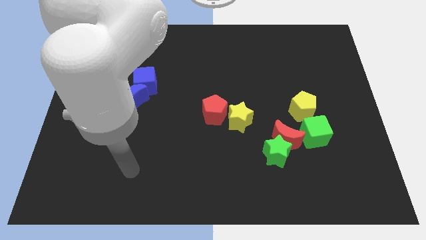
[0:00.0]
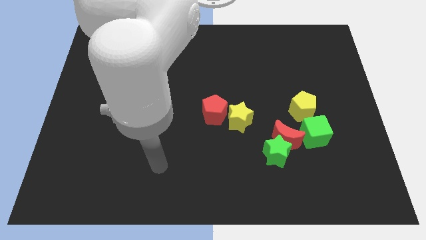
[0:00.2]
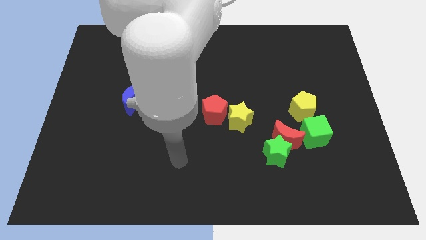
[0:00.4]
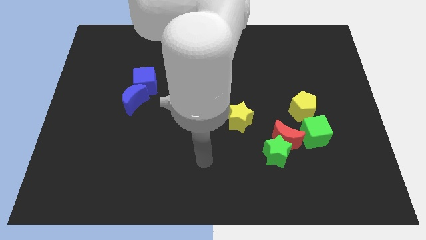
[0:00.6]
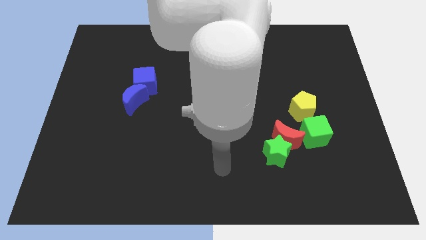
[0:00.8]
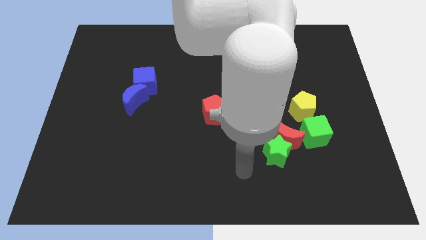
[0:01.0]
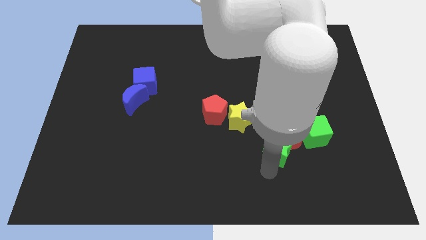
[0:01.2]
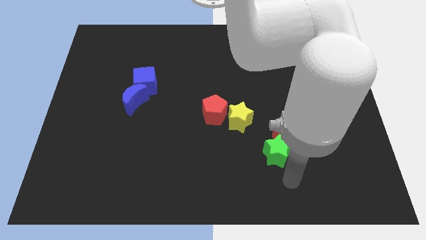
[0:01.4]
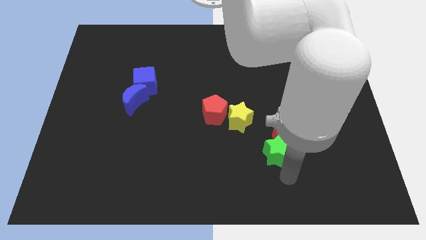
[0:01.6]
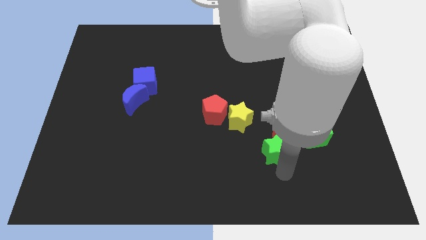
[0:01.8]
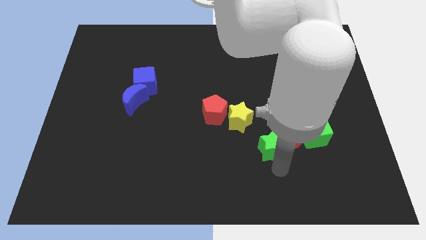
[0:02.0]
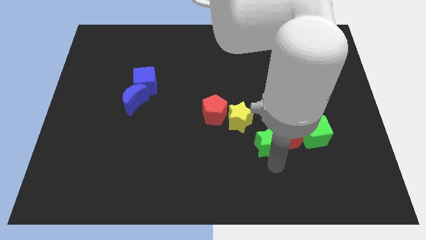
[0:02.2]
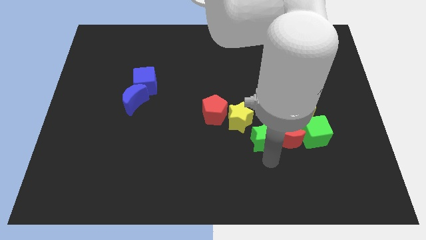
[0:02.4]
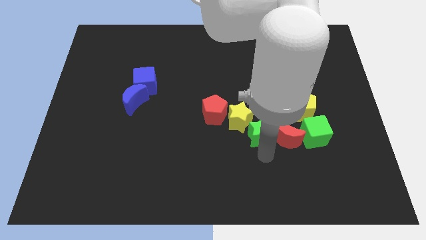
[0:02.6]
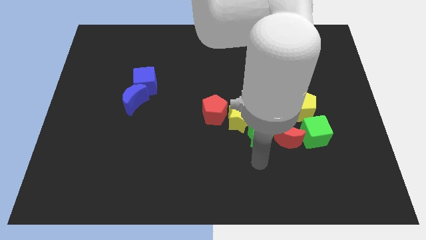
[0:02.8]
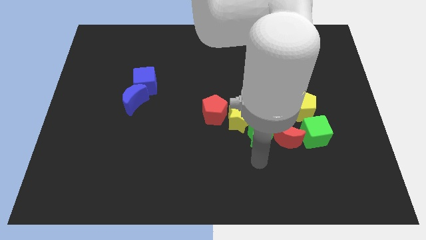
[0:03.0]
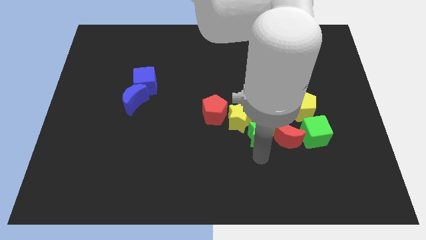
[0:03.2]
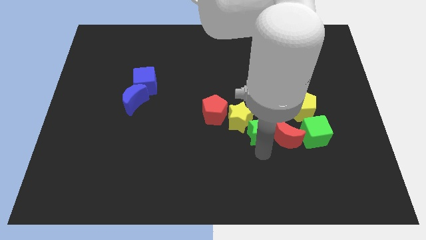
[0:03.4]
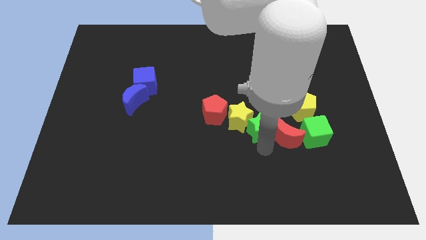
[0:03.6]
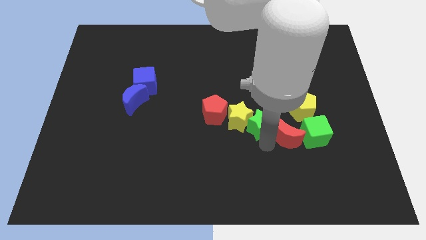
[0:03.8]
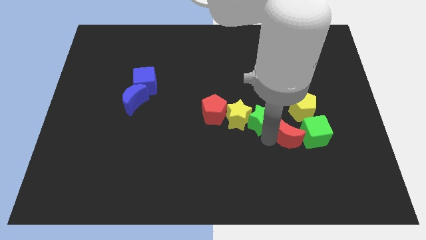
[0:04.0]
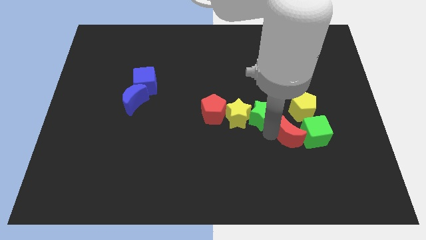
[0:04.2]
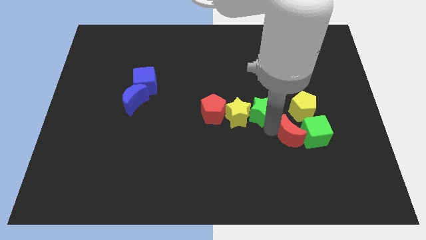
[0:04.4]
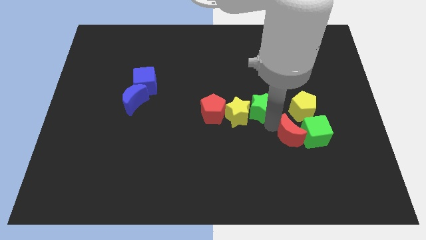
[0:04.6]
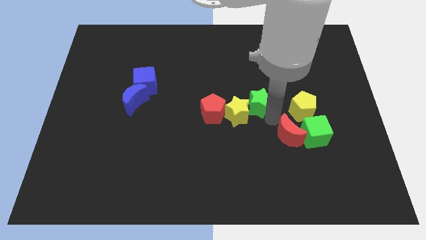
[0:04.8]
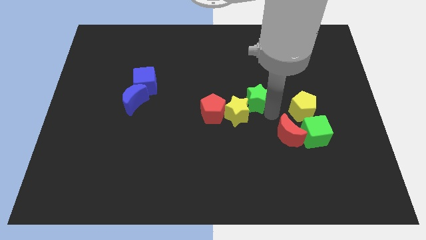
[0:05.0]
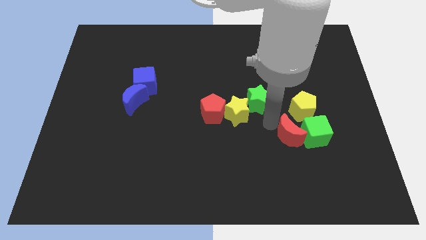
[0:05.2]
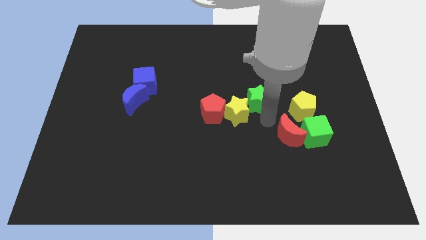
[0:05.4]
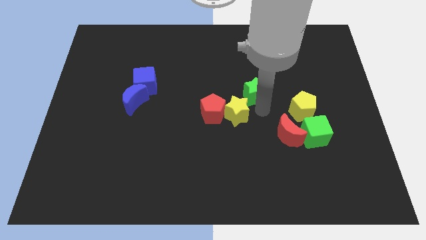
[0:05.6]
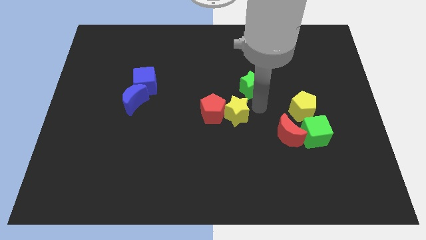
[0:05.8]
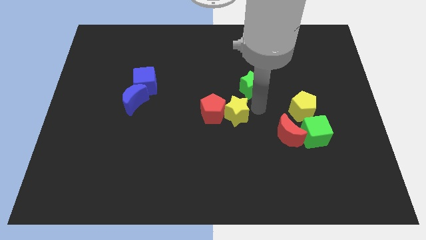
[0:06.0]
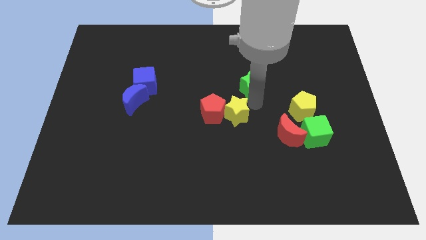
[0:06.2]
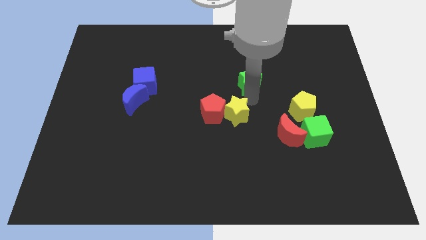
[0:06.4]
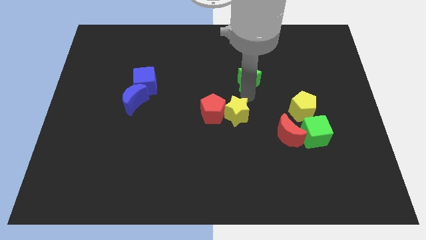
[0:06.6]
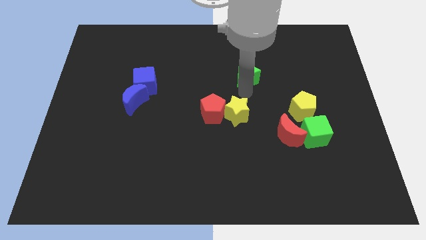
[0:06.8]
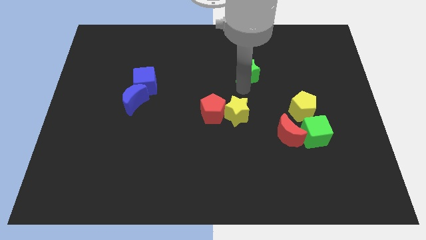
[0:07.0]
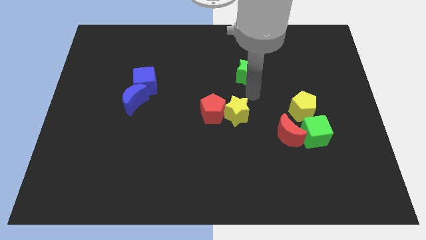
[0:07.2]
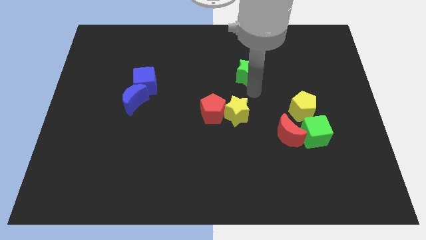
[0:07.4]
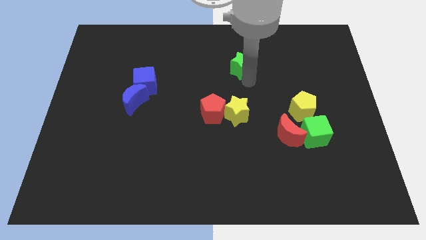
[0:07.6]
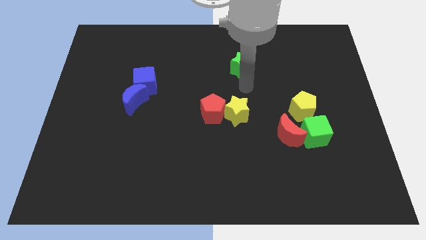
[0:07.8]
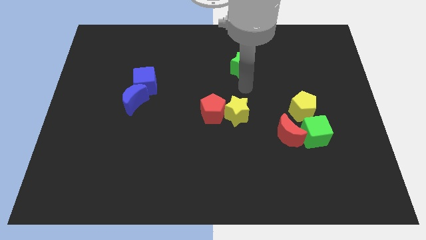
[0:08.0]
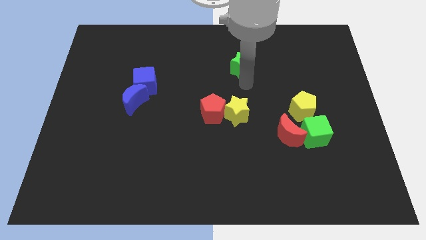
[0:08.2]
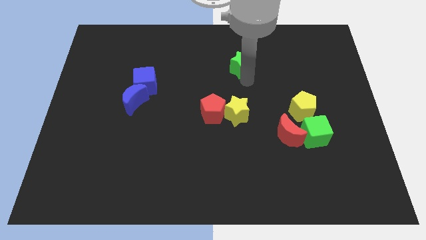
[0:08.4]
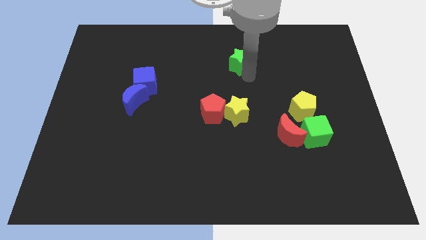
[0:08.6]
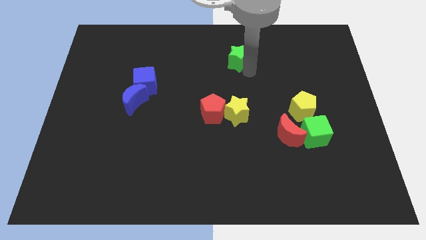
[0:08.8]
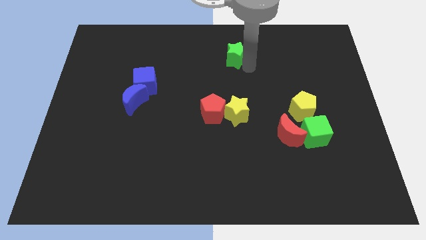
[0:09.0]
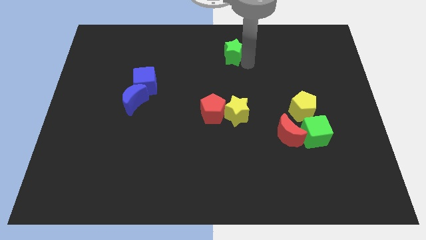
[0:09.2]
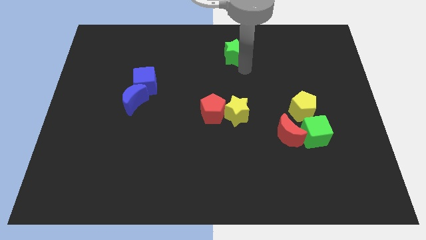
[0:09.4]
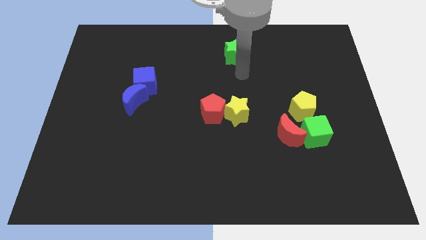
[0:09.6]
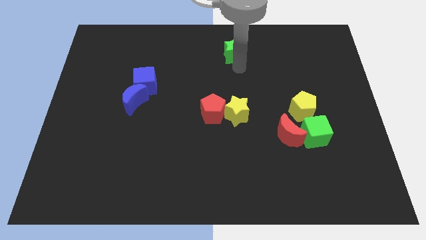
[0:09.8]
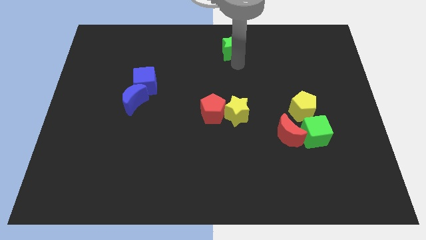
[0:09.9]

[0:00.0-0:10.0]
move the green star to the top

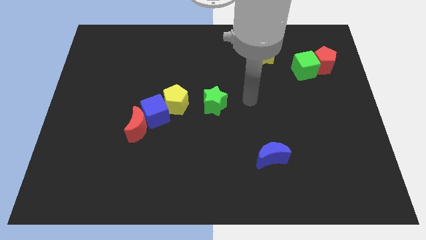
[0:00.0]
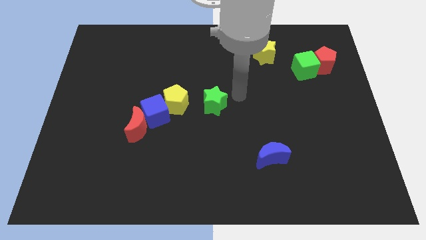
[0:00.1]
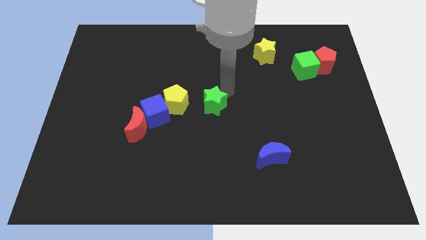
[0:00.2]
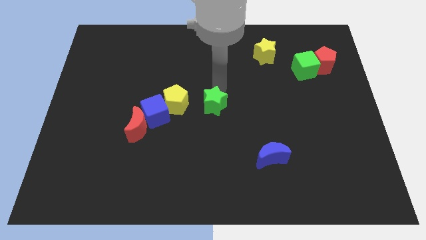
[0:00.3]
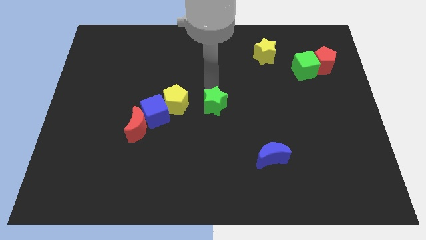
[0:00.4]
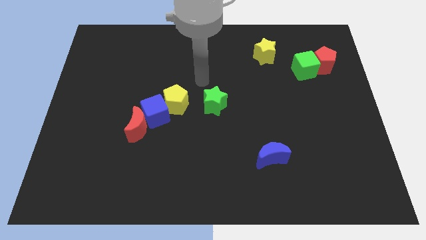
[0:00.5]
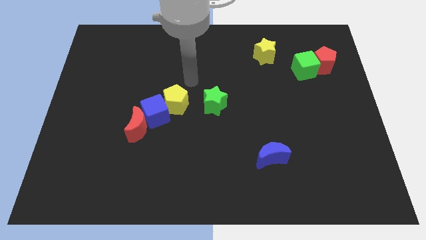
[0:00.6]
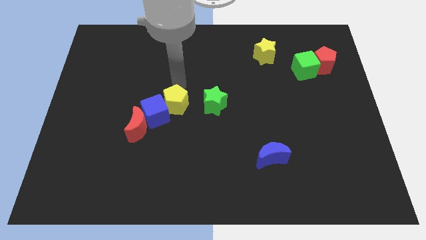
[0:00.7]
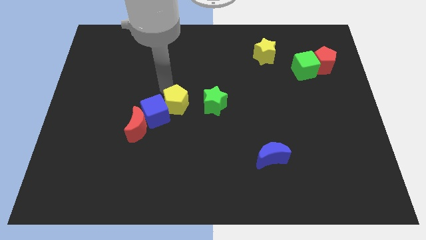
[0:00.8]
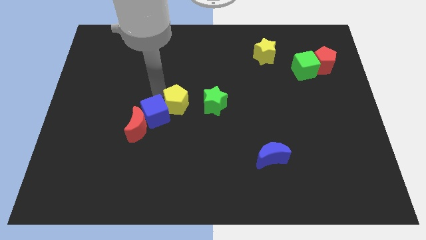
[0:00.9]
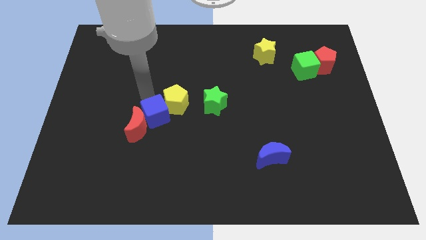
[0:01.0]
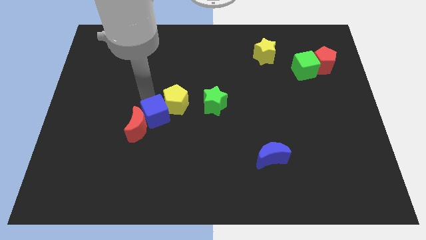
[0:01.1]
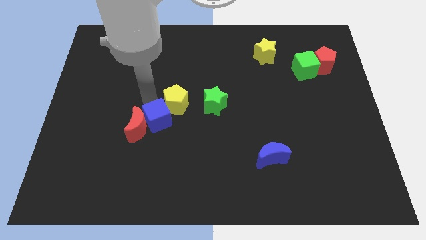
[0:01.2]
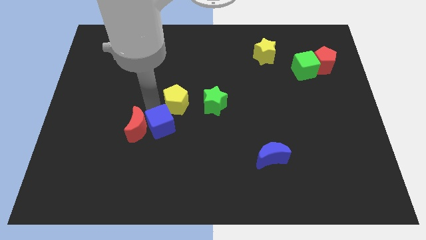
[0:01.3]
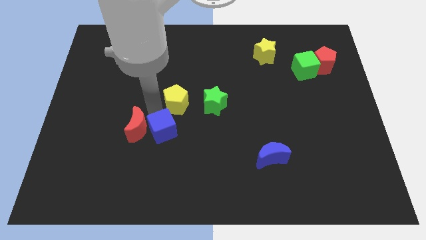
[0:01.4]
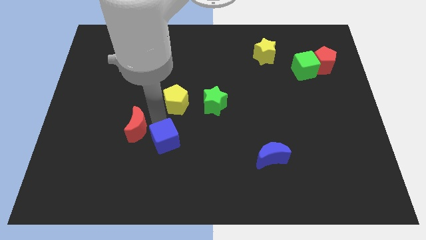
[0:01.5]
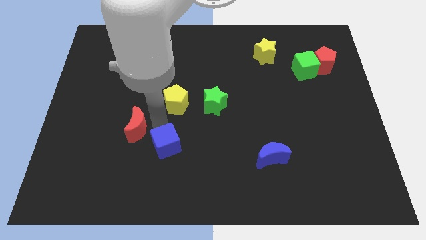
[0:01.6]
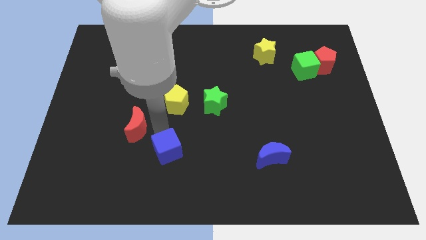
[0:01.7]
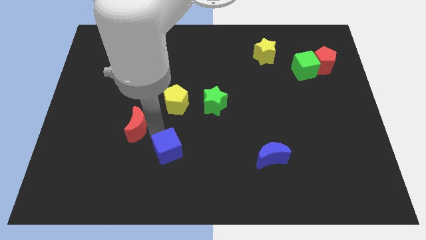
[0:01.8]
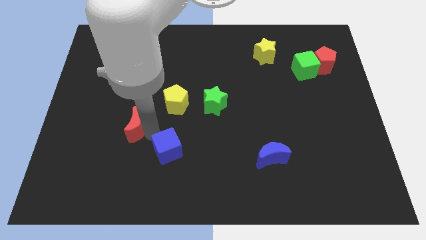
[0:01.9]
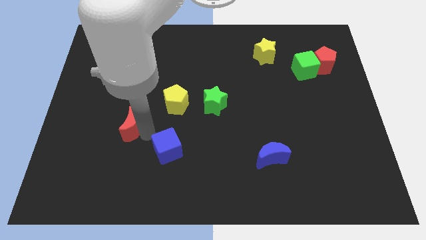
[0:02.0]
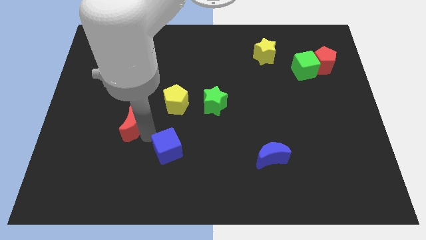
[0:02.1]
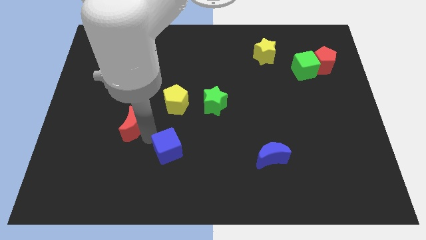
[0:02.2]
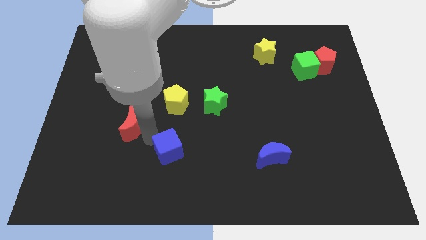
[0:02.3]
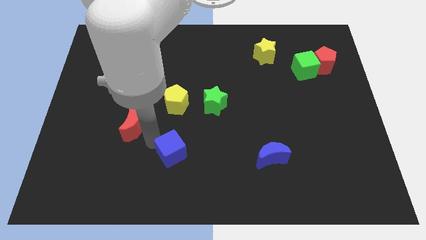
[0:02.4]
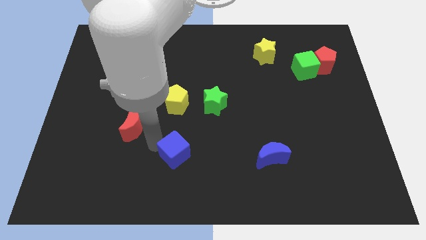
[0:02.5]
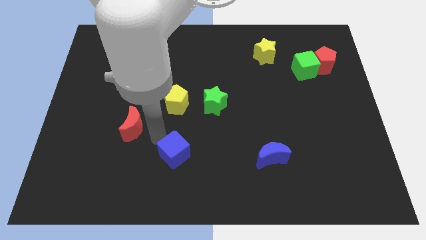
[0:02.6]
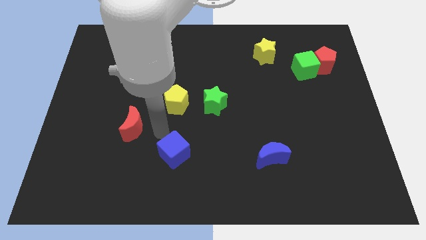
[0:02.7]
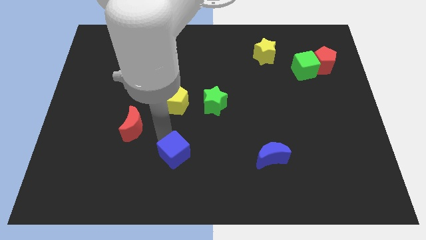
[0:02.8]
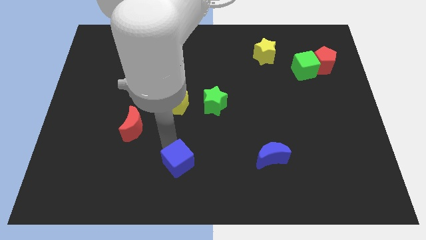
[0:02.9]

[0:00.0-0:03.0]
slide the blue cube to the bottom
